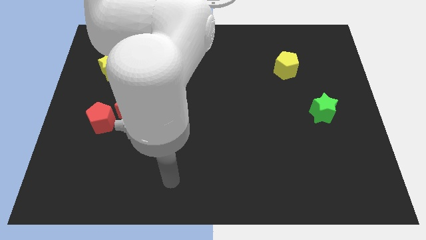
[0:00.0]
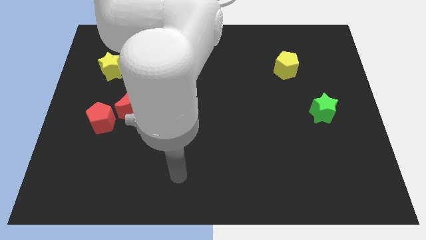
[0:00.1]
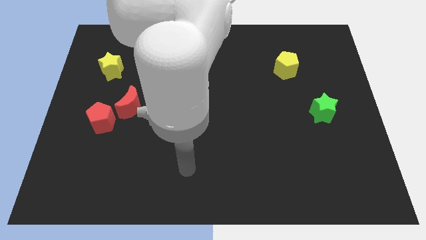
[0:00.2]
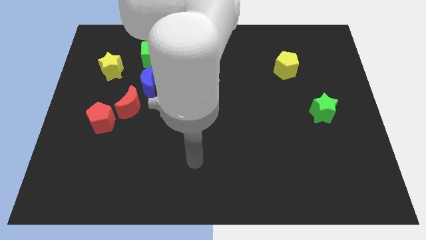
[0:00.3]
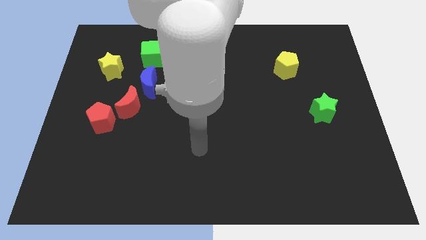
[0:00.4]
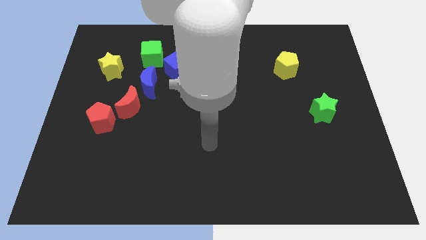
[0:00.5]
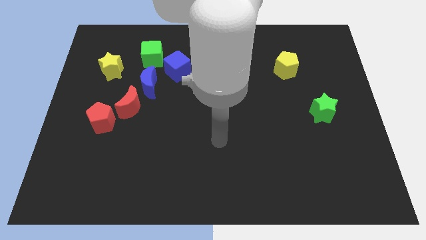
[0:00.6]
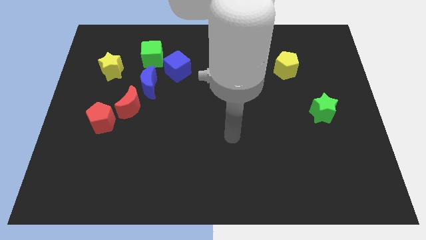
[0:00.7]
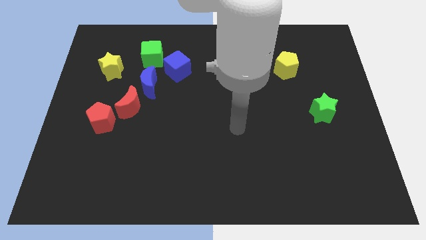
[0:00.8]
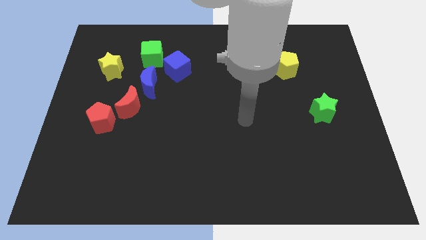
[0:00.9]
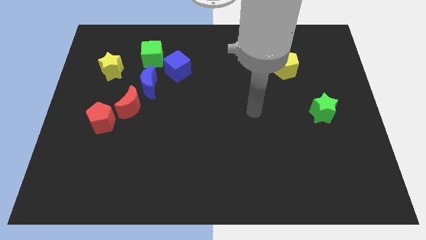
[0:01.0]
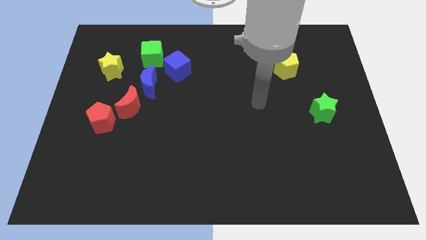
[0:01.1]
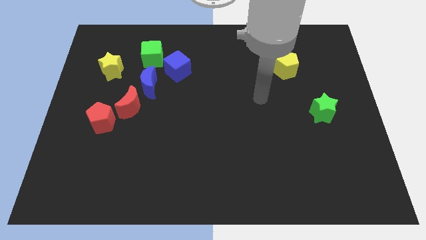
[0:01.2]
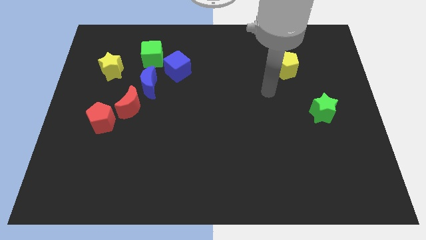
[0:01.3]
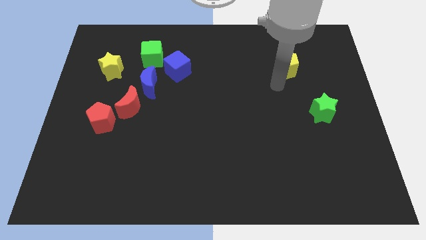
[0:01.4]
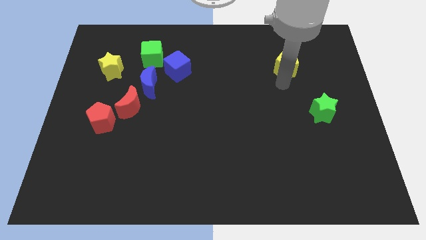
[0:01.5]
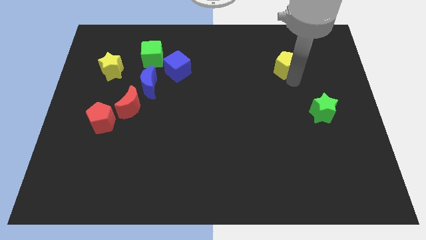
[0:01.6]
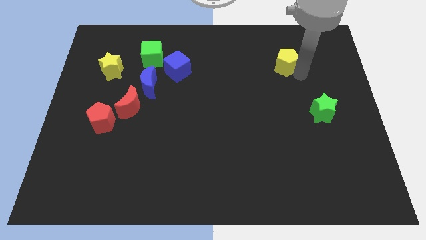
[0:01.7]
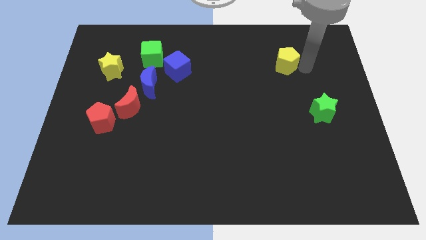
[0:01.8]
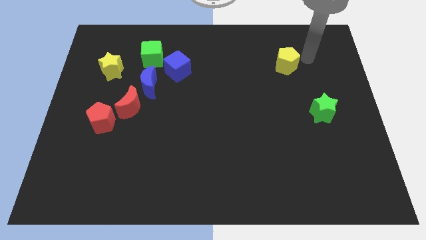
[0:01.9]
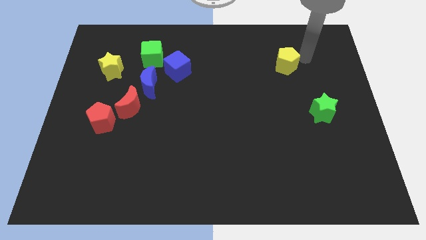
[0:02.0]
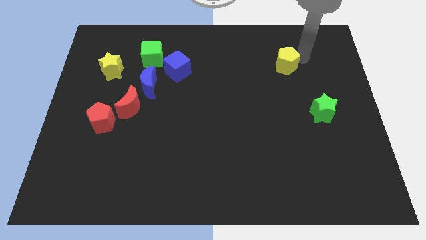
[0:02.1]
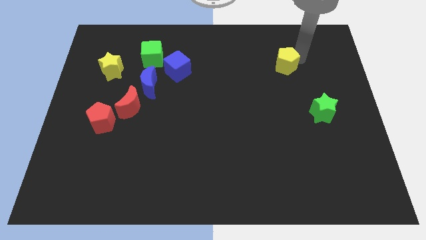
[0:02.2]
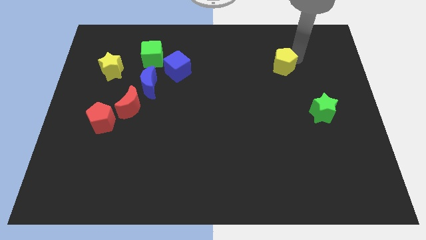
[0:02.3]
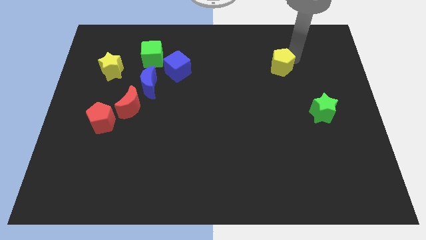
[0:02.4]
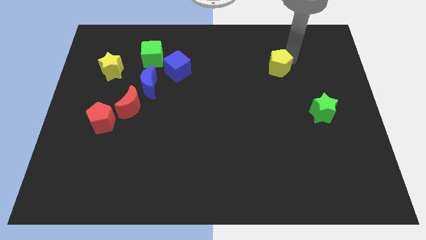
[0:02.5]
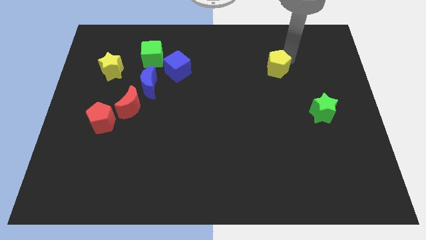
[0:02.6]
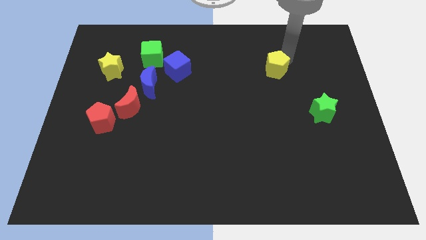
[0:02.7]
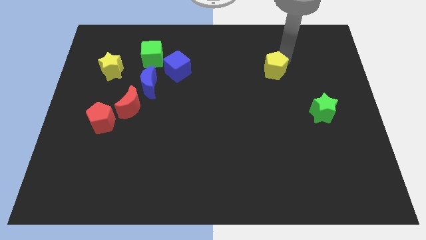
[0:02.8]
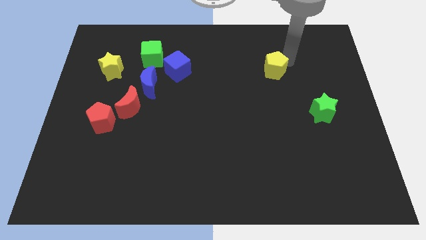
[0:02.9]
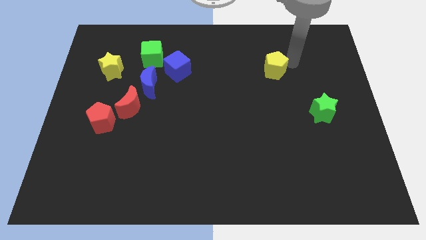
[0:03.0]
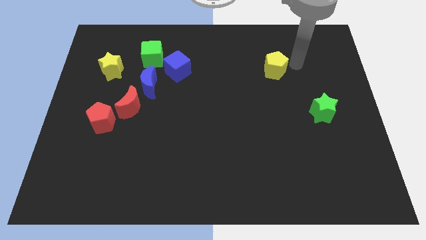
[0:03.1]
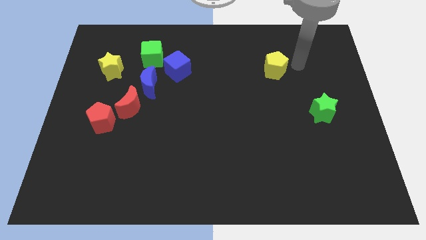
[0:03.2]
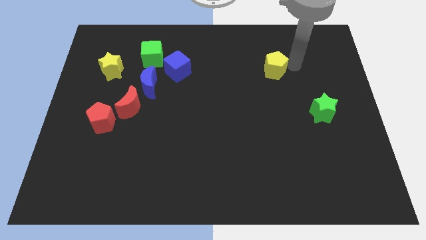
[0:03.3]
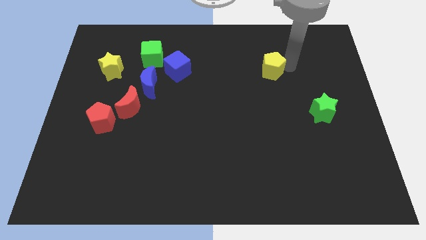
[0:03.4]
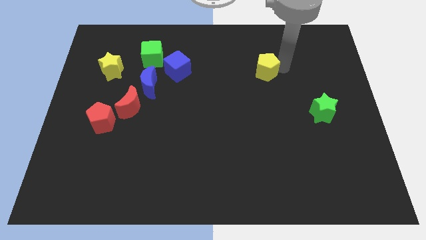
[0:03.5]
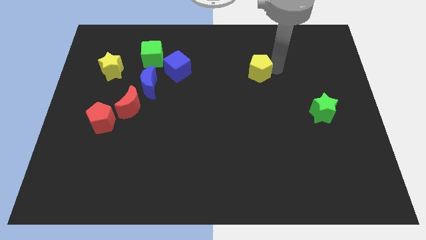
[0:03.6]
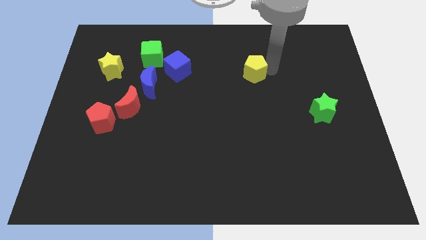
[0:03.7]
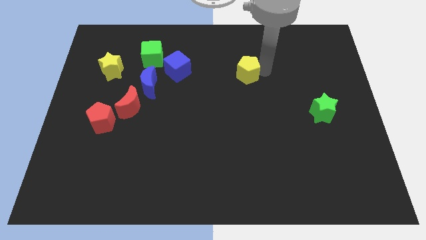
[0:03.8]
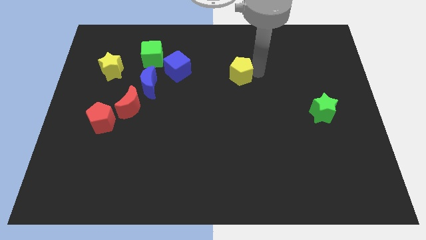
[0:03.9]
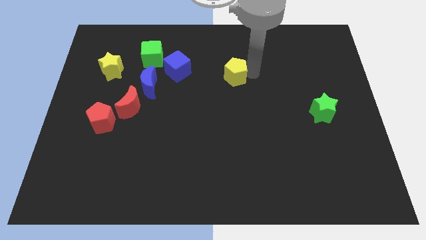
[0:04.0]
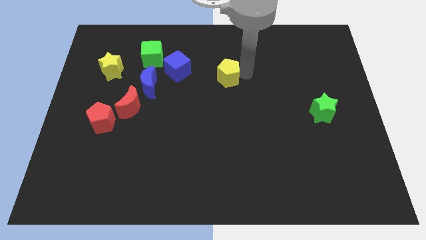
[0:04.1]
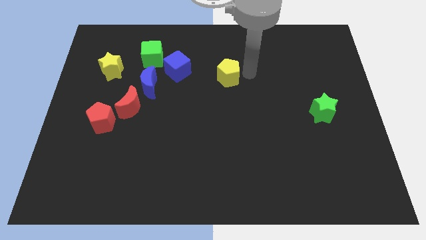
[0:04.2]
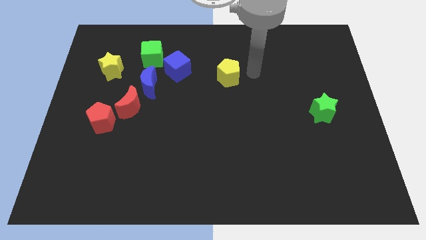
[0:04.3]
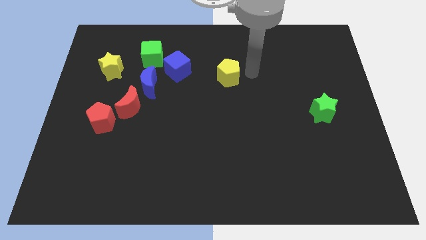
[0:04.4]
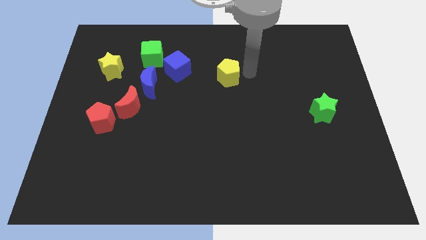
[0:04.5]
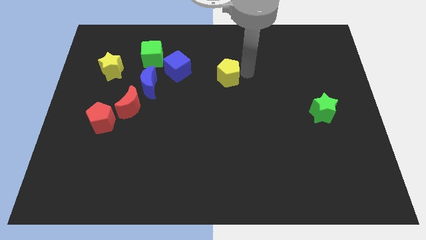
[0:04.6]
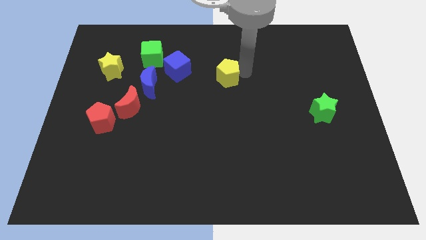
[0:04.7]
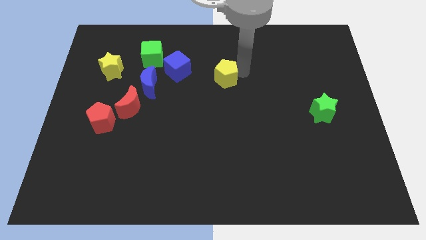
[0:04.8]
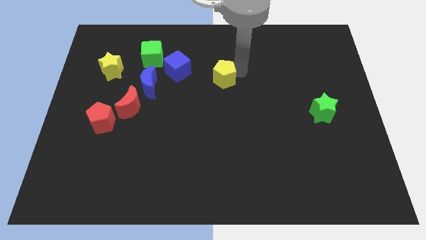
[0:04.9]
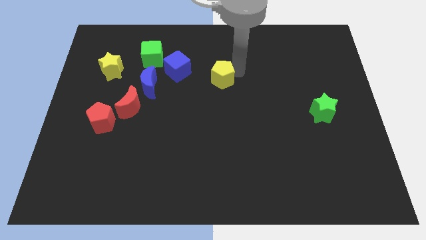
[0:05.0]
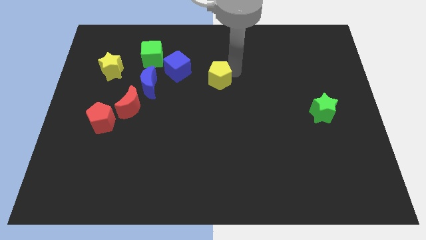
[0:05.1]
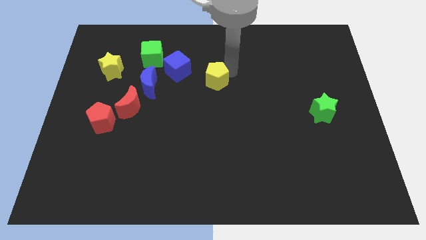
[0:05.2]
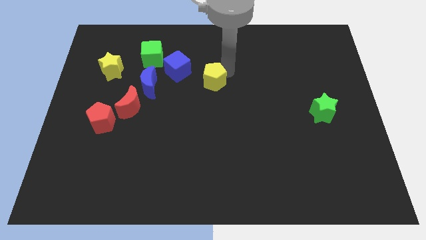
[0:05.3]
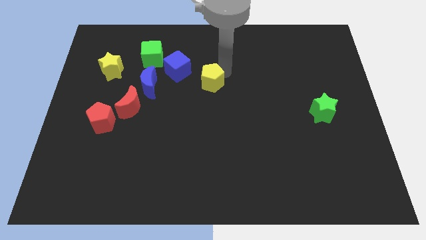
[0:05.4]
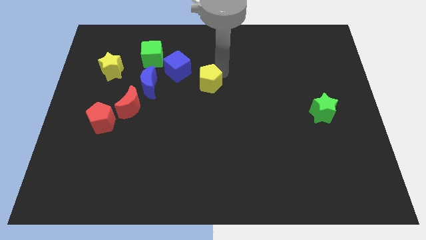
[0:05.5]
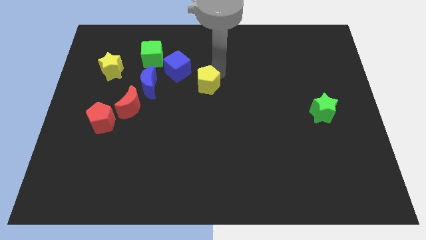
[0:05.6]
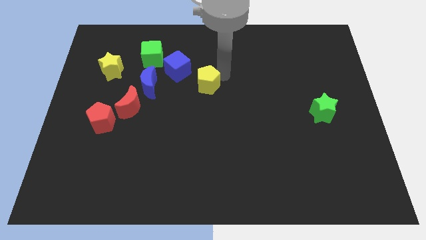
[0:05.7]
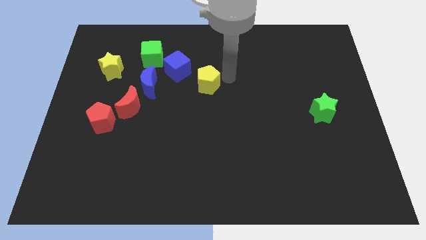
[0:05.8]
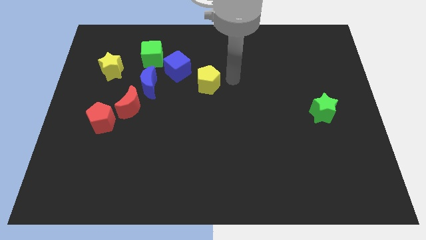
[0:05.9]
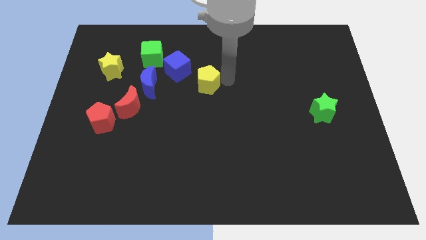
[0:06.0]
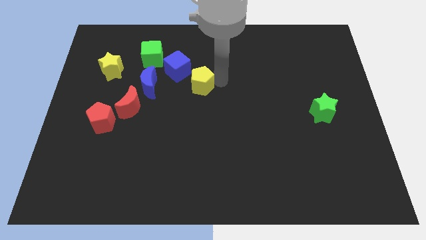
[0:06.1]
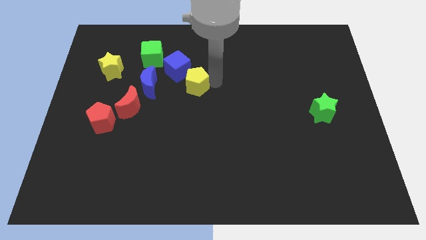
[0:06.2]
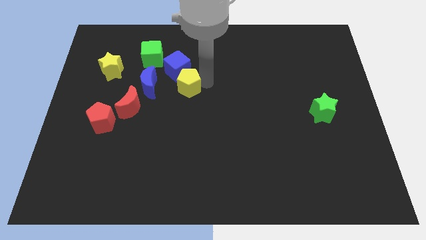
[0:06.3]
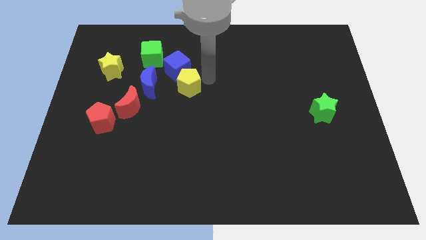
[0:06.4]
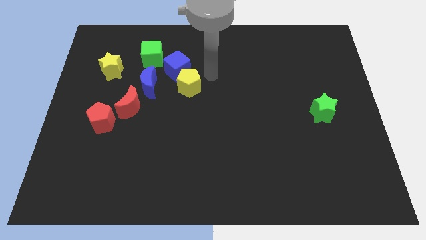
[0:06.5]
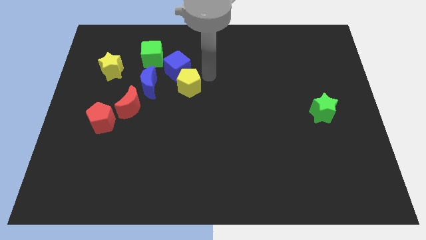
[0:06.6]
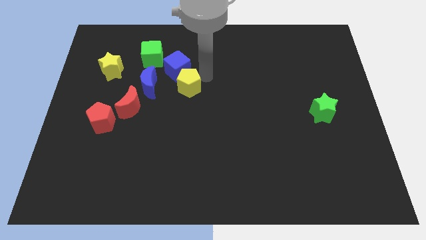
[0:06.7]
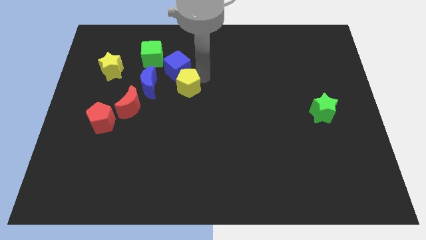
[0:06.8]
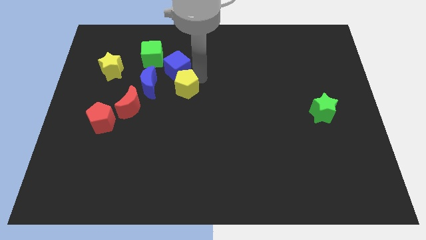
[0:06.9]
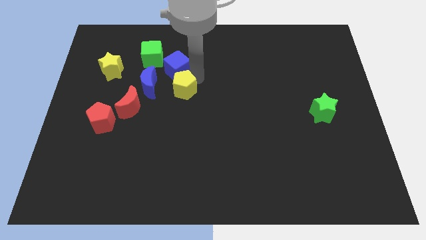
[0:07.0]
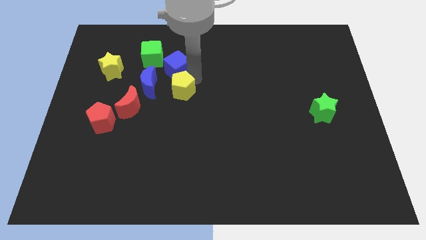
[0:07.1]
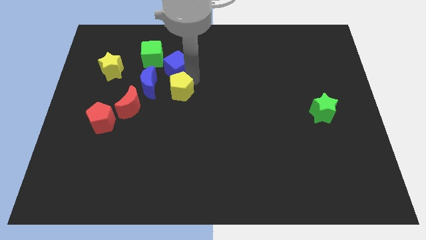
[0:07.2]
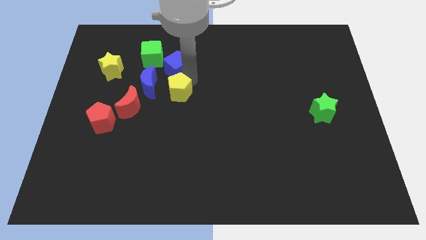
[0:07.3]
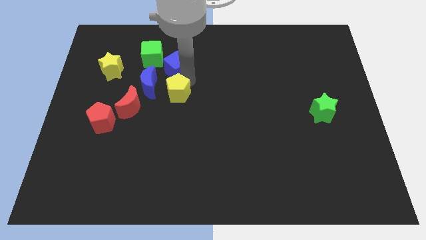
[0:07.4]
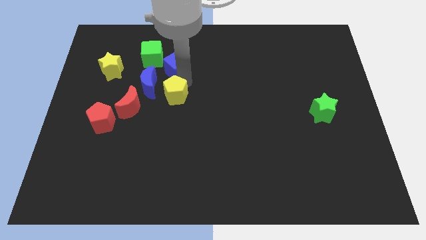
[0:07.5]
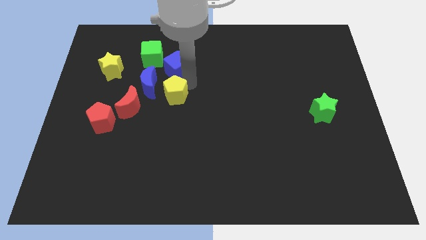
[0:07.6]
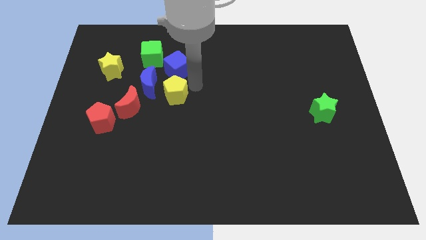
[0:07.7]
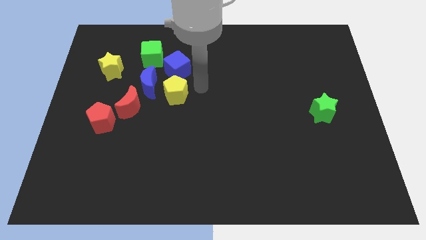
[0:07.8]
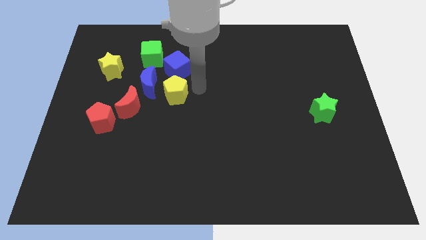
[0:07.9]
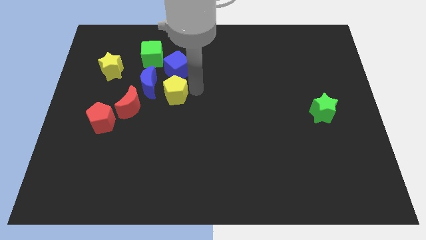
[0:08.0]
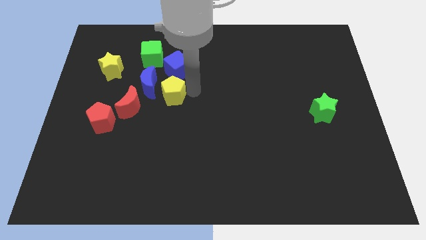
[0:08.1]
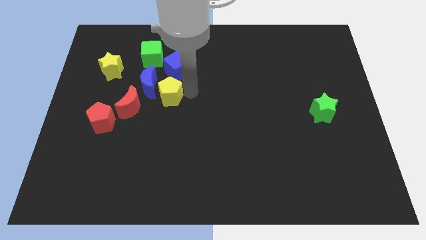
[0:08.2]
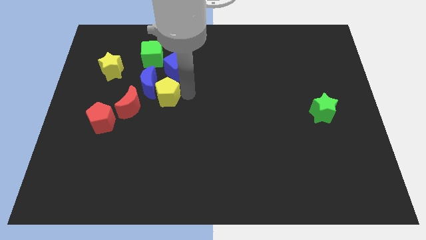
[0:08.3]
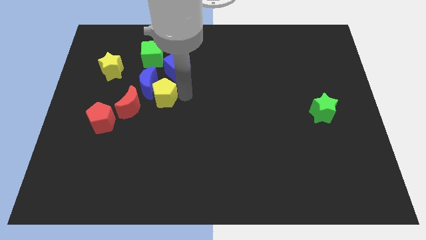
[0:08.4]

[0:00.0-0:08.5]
slide the yellow pentagon to the bottom of the green cube
